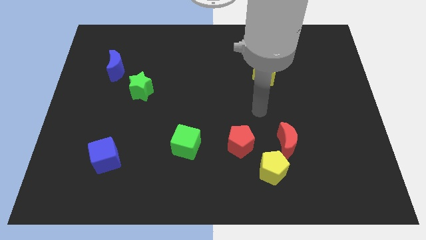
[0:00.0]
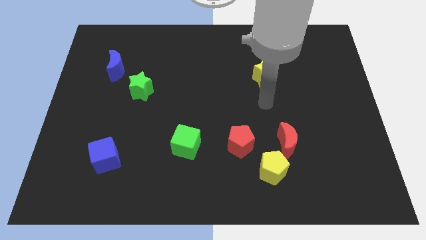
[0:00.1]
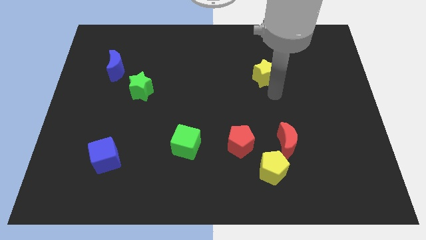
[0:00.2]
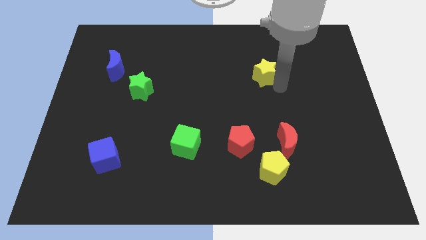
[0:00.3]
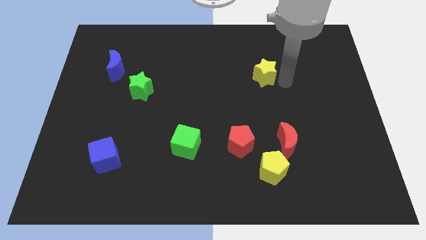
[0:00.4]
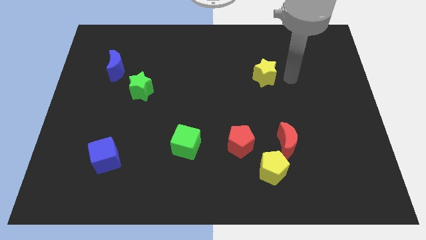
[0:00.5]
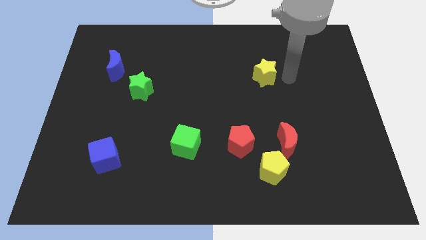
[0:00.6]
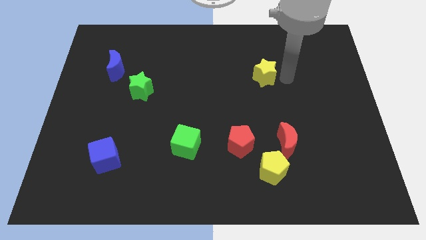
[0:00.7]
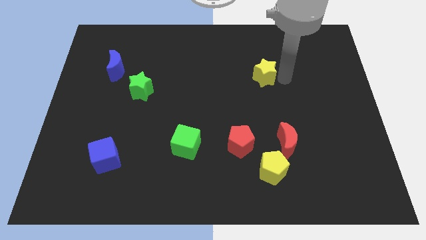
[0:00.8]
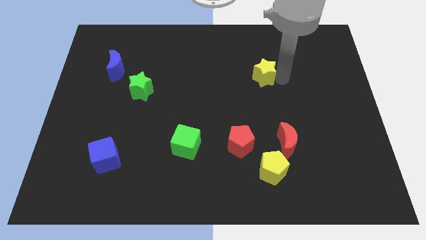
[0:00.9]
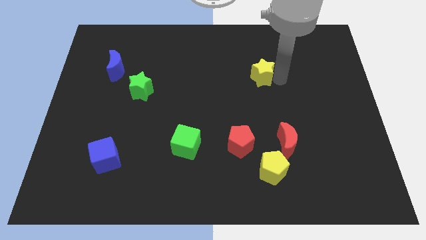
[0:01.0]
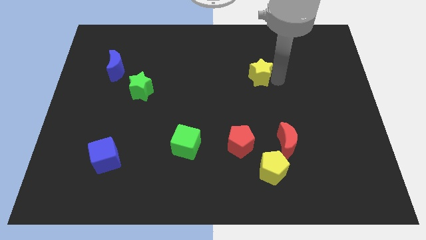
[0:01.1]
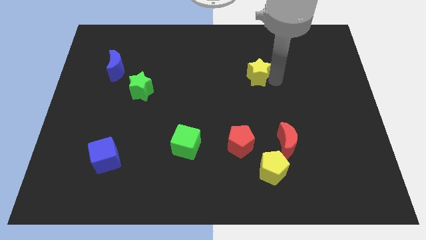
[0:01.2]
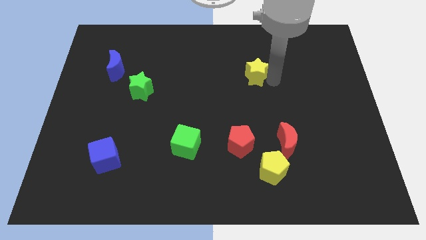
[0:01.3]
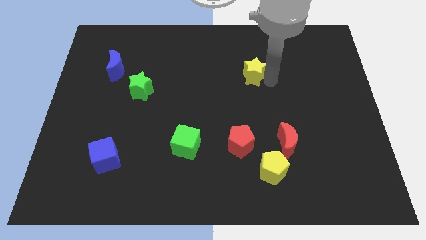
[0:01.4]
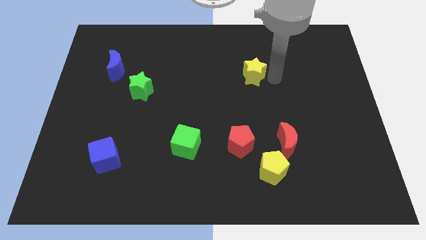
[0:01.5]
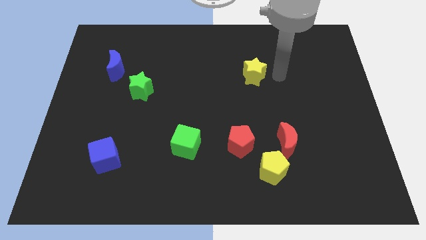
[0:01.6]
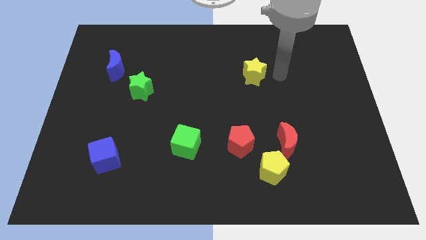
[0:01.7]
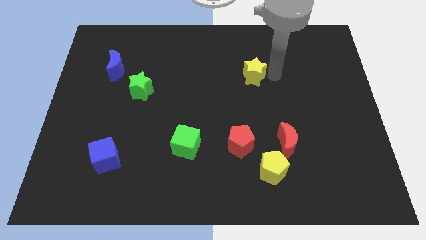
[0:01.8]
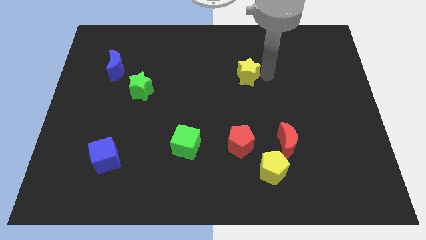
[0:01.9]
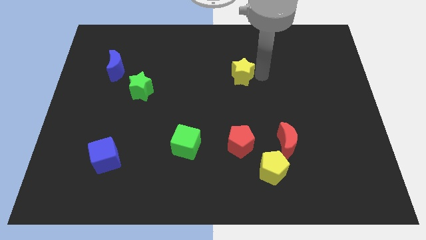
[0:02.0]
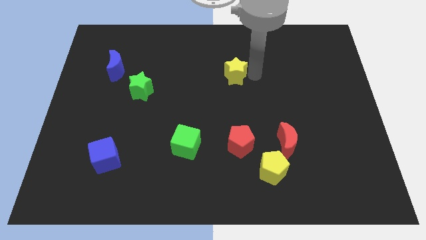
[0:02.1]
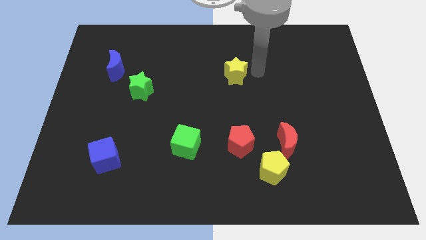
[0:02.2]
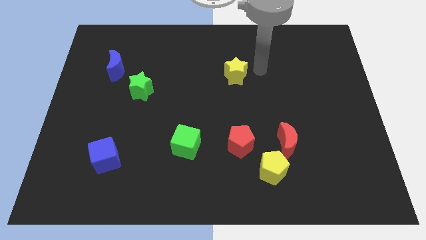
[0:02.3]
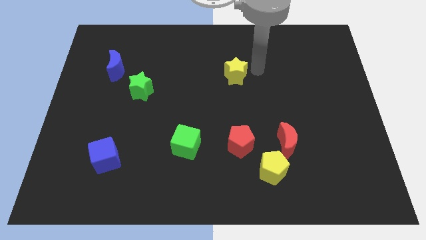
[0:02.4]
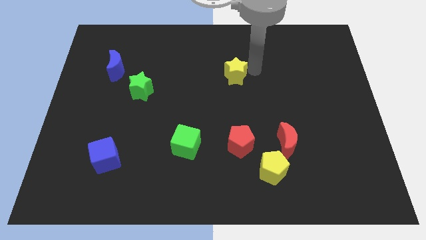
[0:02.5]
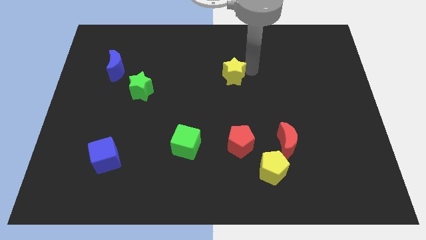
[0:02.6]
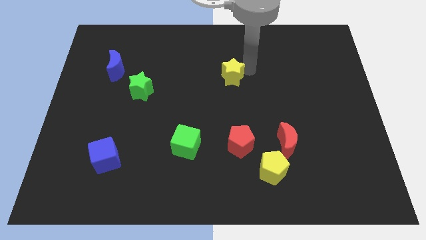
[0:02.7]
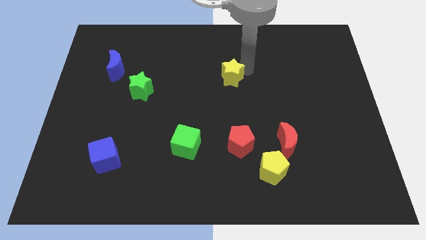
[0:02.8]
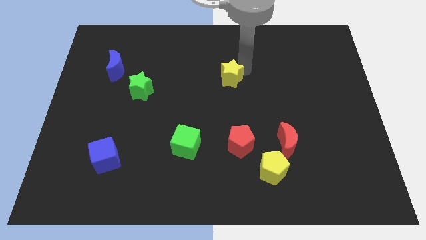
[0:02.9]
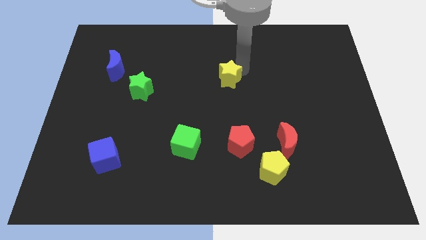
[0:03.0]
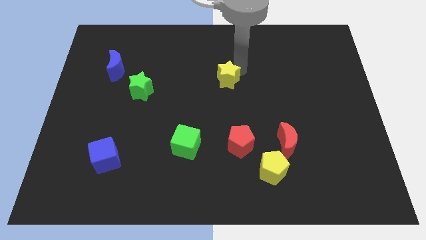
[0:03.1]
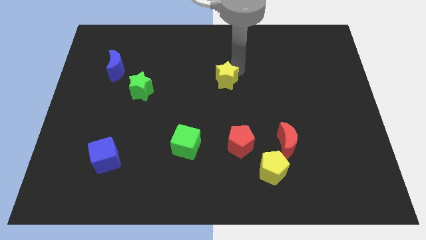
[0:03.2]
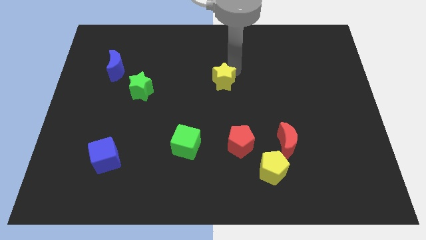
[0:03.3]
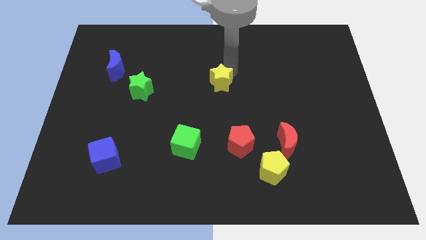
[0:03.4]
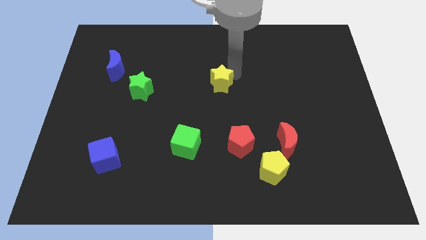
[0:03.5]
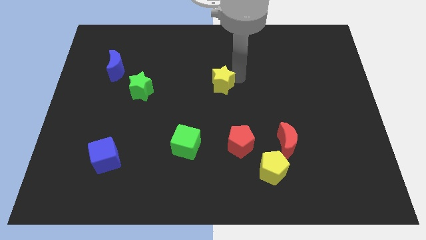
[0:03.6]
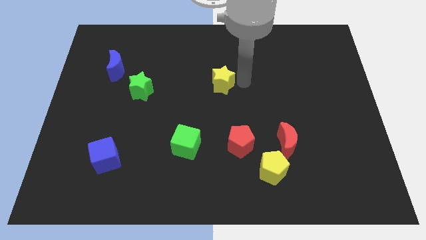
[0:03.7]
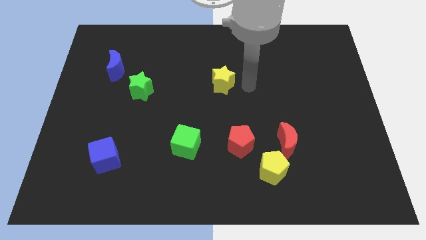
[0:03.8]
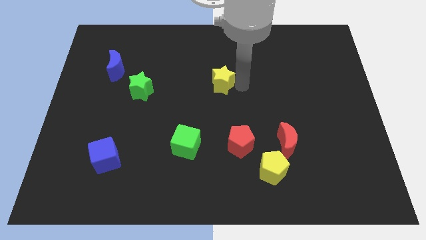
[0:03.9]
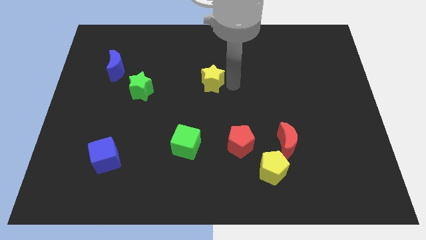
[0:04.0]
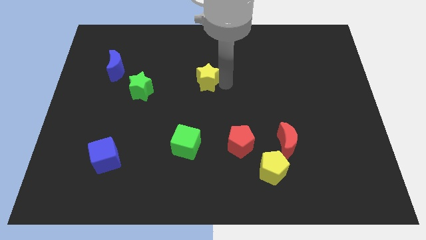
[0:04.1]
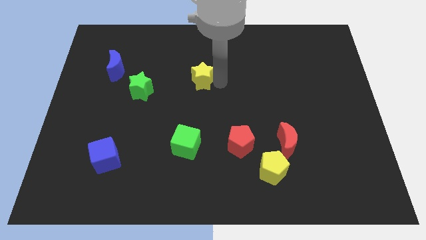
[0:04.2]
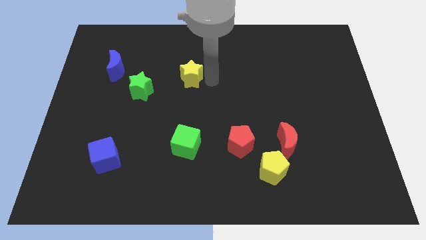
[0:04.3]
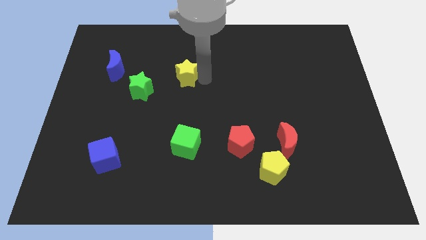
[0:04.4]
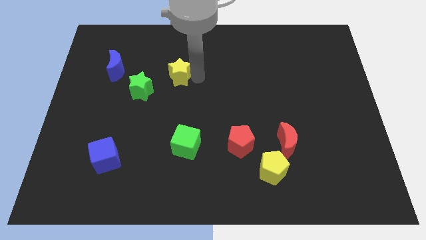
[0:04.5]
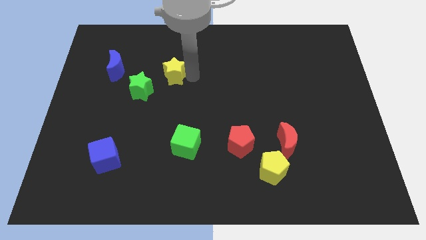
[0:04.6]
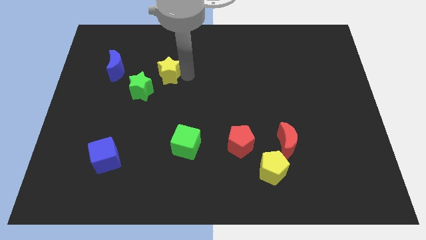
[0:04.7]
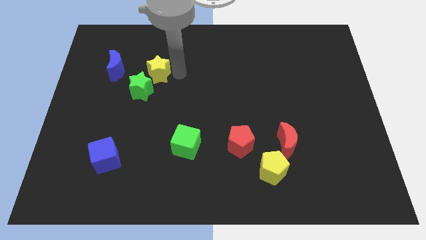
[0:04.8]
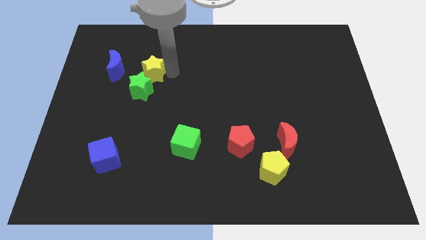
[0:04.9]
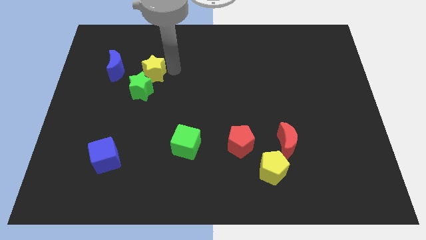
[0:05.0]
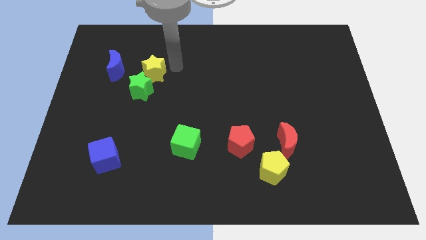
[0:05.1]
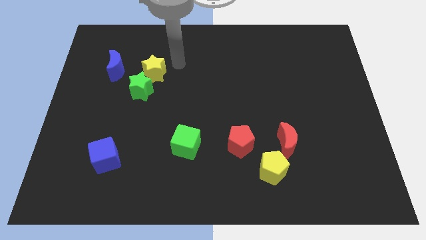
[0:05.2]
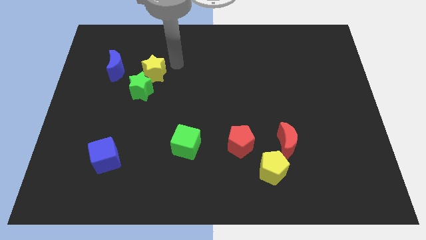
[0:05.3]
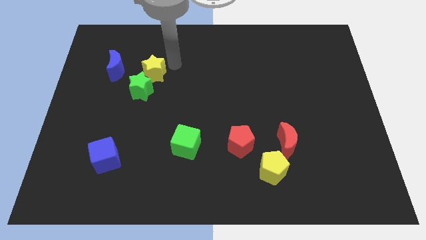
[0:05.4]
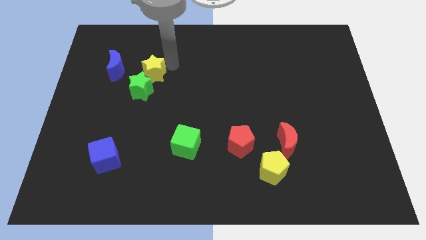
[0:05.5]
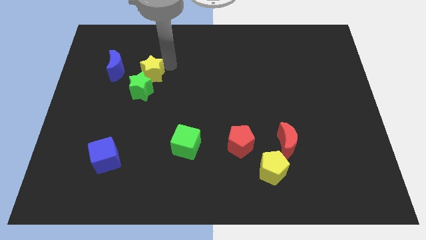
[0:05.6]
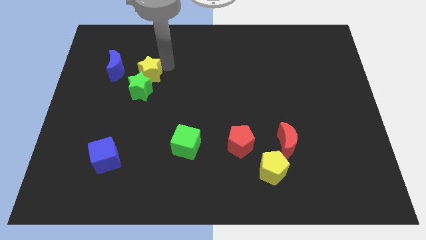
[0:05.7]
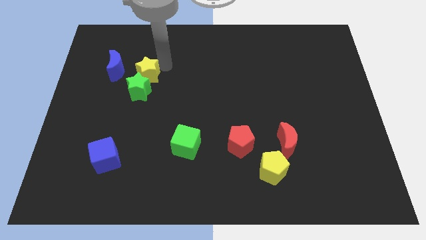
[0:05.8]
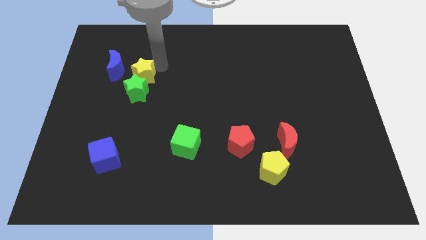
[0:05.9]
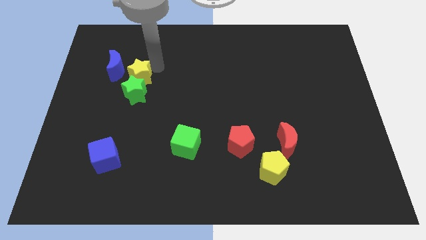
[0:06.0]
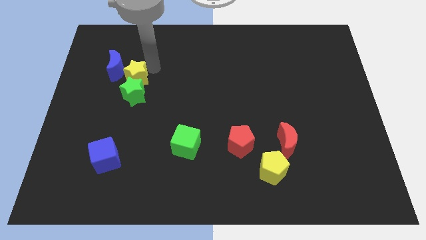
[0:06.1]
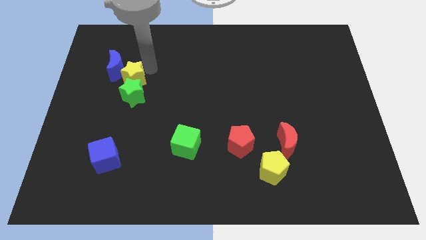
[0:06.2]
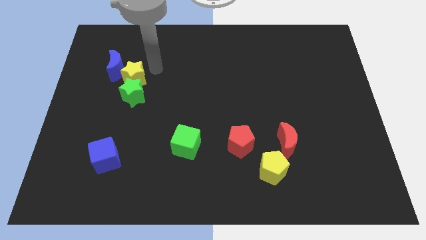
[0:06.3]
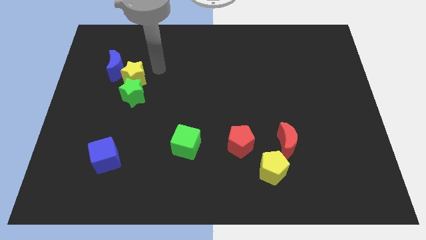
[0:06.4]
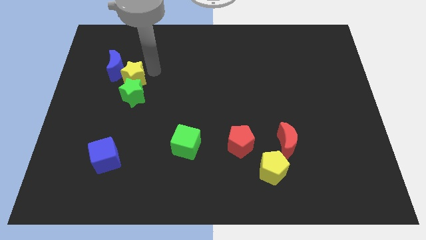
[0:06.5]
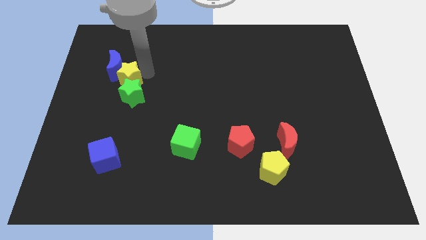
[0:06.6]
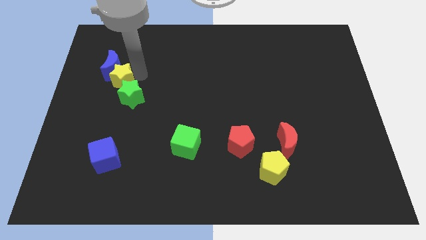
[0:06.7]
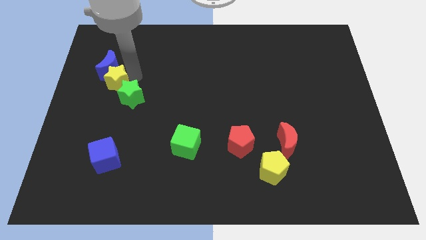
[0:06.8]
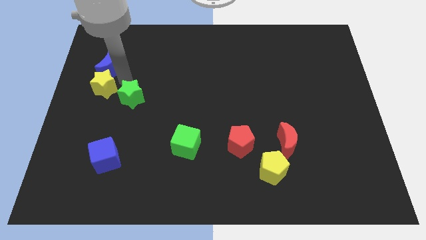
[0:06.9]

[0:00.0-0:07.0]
move the yellow star to the left side of the board
